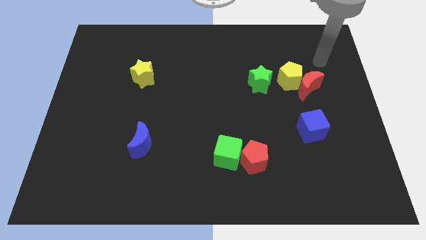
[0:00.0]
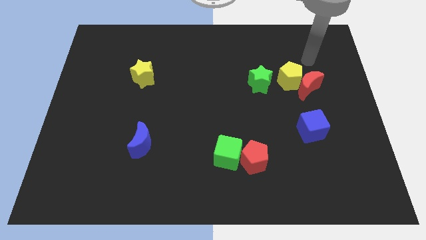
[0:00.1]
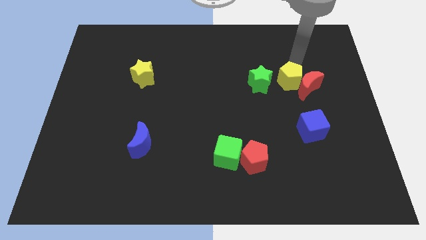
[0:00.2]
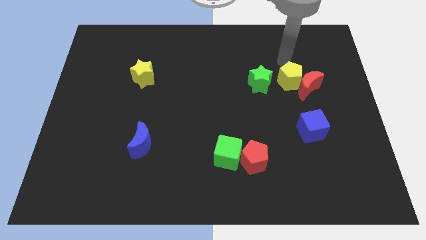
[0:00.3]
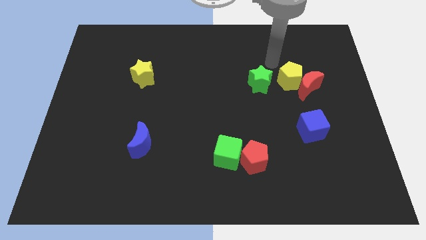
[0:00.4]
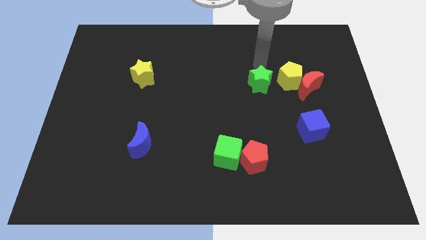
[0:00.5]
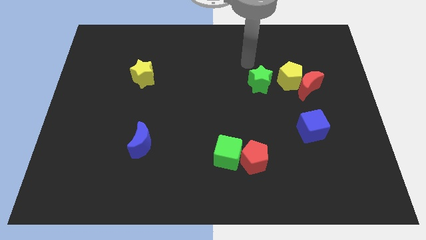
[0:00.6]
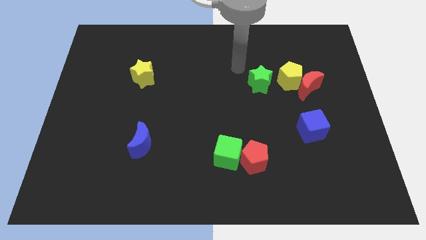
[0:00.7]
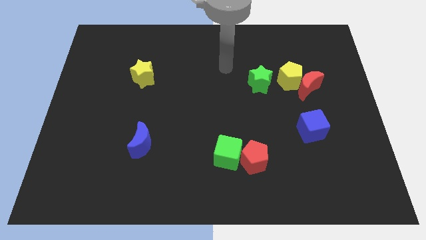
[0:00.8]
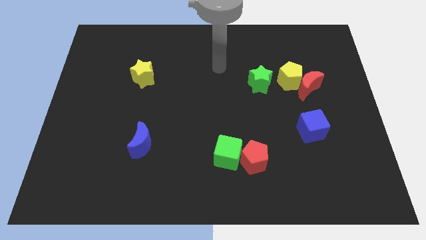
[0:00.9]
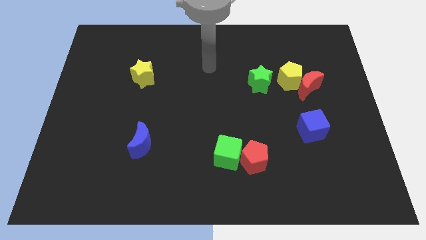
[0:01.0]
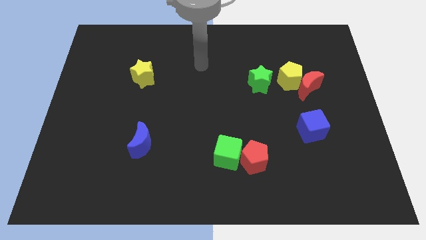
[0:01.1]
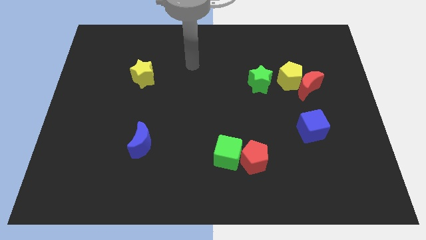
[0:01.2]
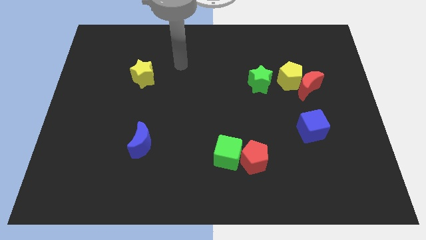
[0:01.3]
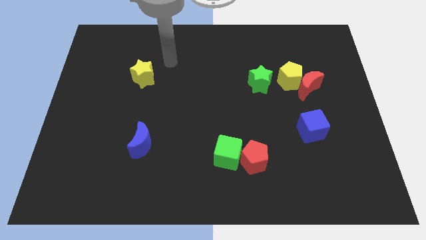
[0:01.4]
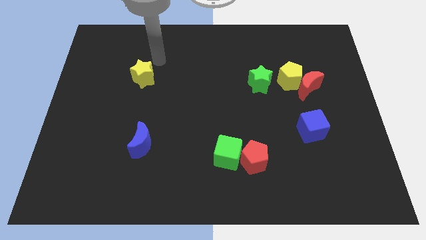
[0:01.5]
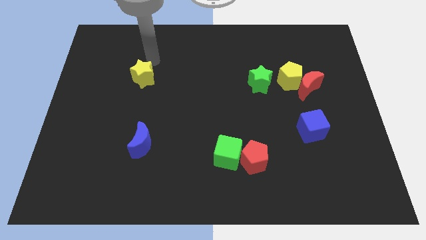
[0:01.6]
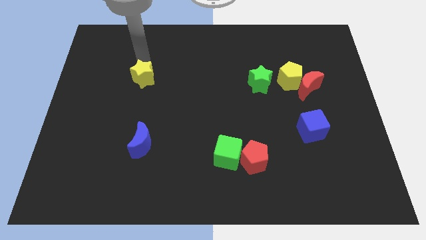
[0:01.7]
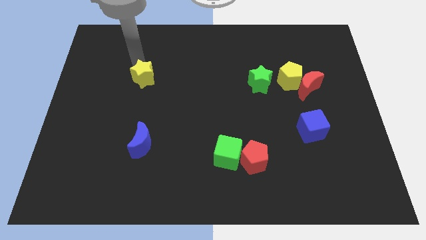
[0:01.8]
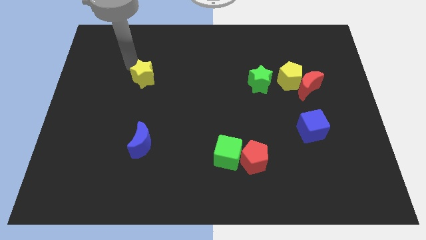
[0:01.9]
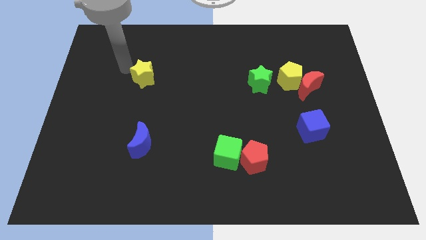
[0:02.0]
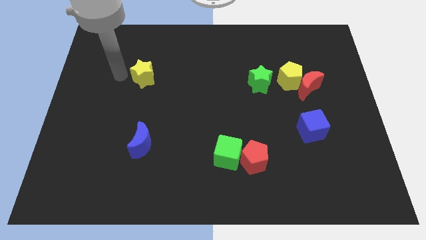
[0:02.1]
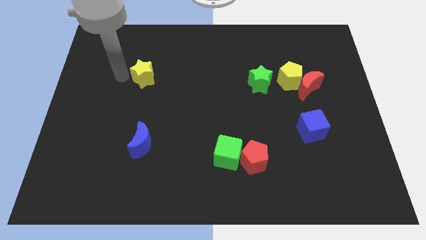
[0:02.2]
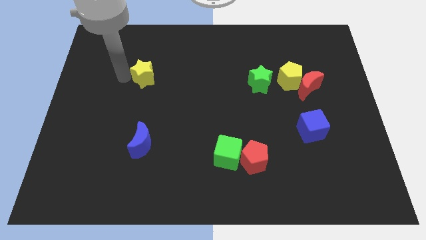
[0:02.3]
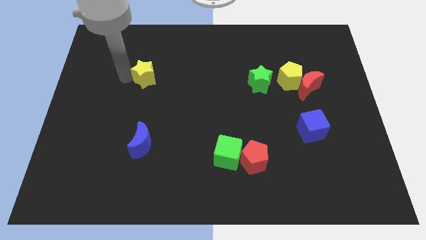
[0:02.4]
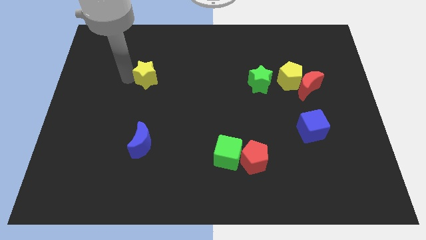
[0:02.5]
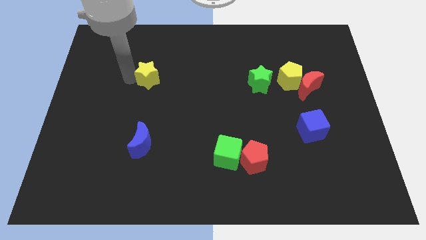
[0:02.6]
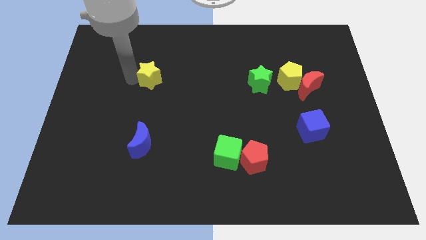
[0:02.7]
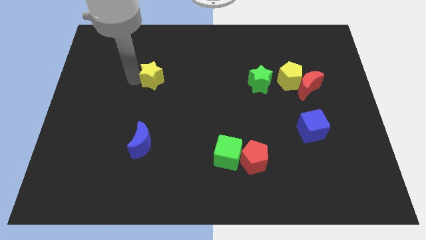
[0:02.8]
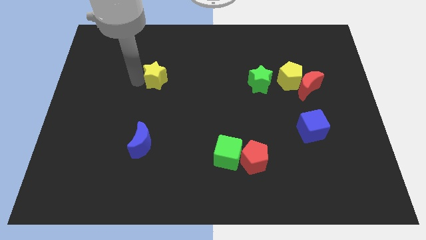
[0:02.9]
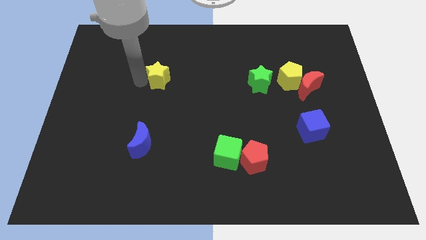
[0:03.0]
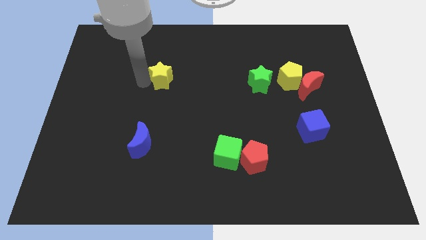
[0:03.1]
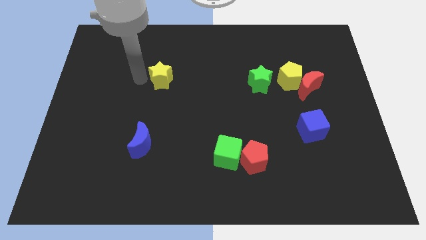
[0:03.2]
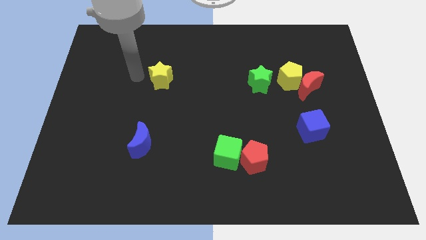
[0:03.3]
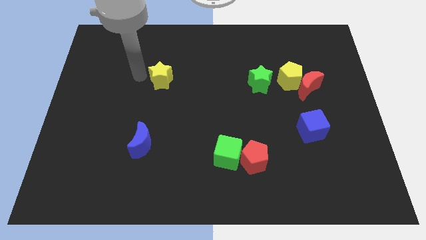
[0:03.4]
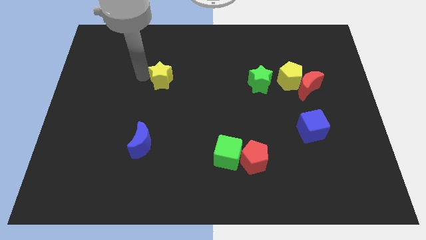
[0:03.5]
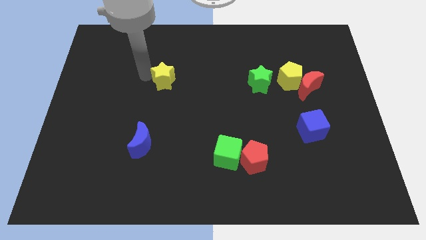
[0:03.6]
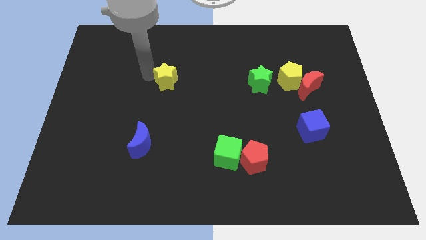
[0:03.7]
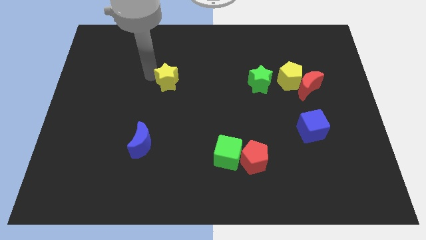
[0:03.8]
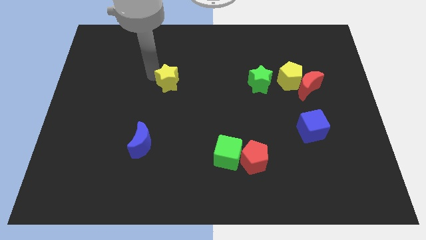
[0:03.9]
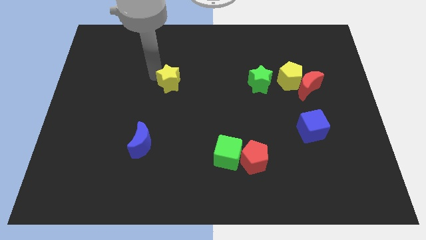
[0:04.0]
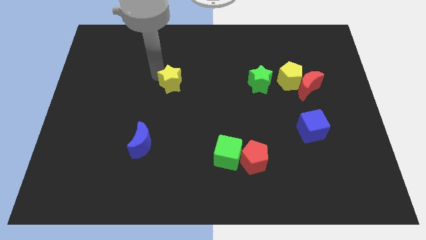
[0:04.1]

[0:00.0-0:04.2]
move the yellow star right somewhat

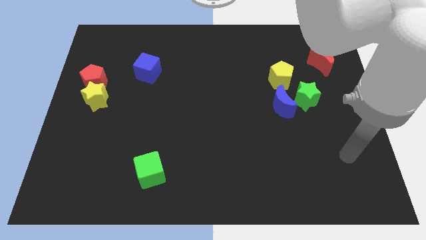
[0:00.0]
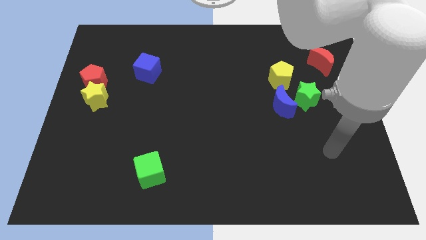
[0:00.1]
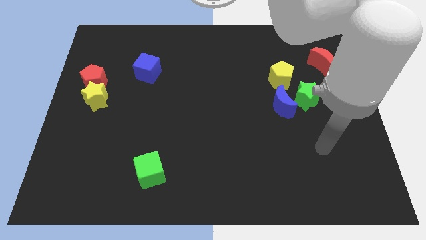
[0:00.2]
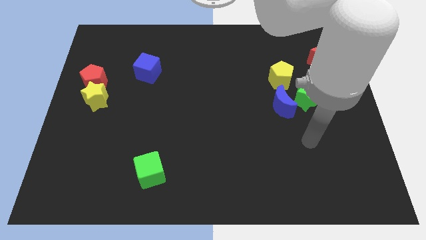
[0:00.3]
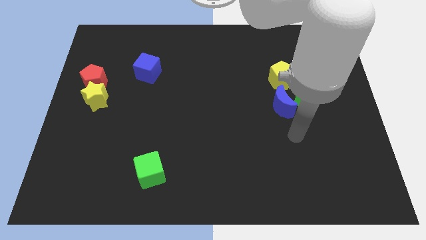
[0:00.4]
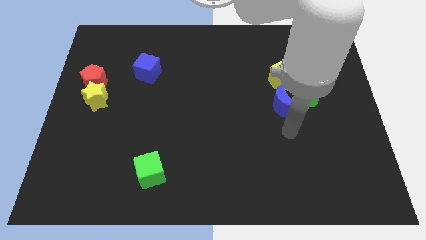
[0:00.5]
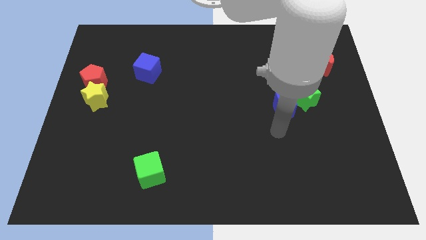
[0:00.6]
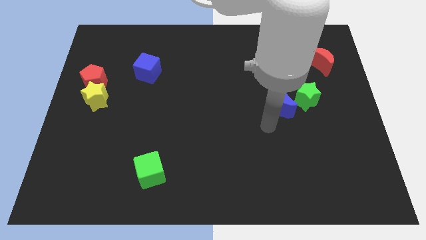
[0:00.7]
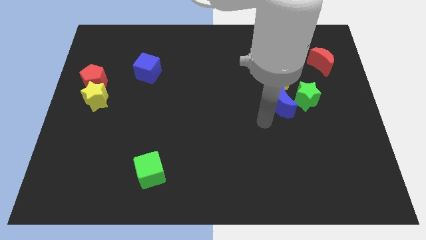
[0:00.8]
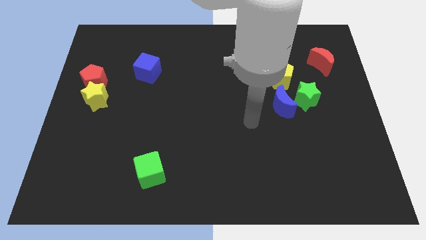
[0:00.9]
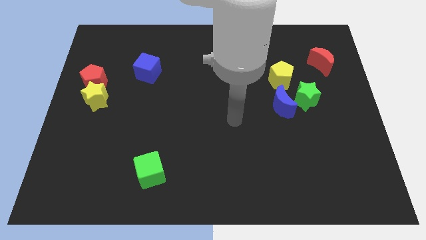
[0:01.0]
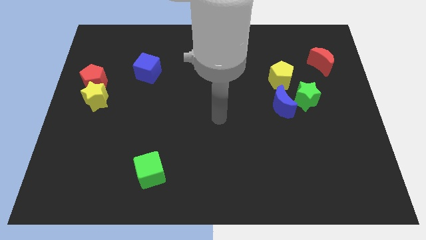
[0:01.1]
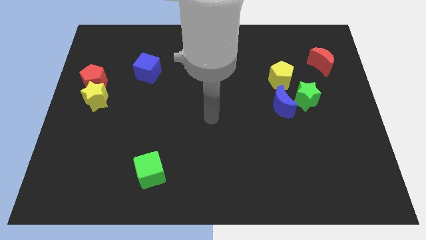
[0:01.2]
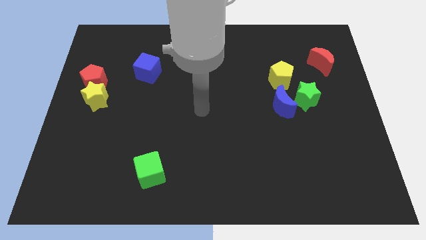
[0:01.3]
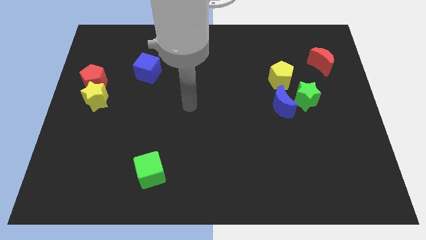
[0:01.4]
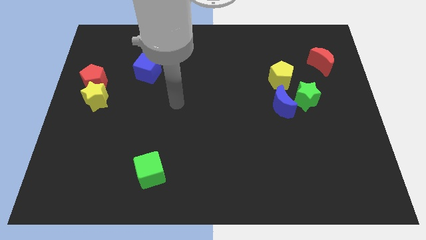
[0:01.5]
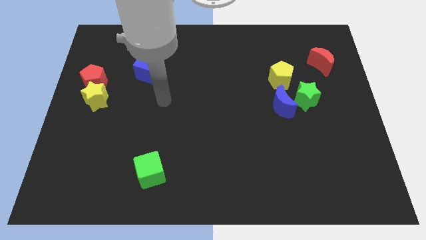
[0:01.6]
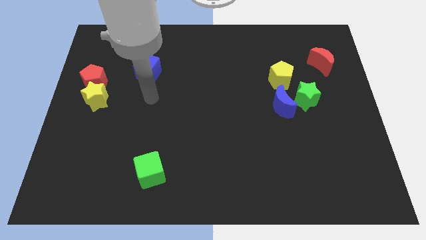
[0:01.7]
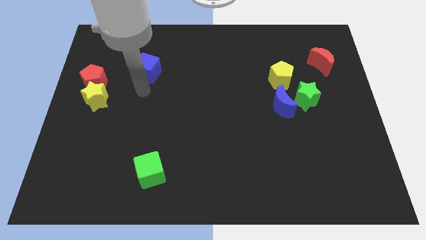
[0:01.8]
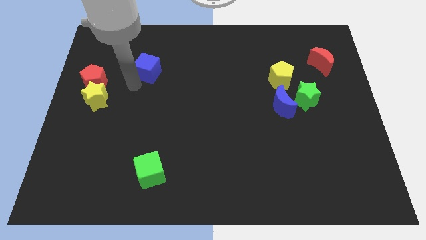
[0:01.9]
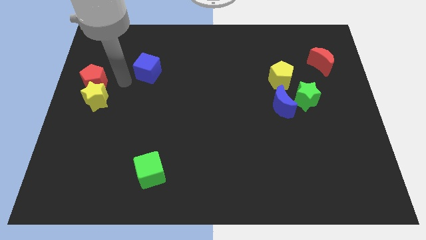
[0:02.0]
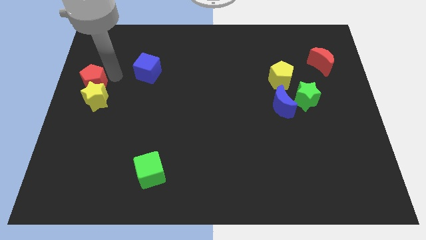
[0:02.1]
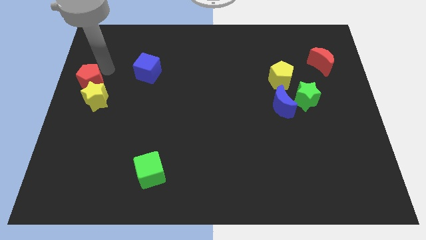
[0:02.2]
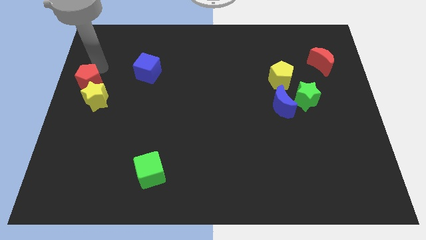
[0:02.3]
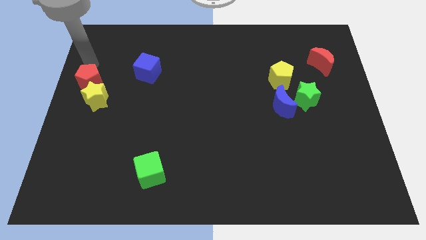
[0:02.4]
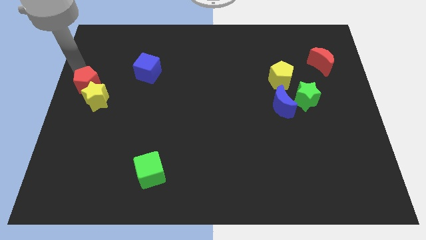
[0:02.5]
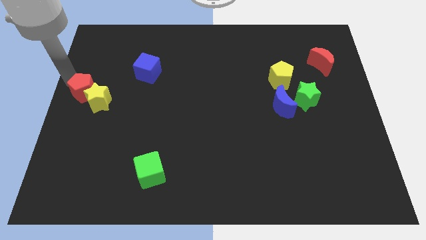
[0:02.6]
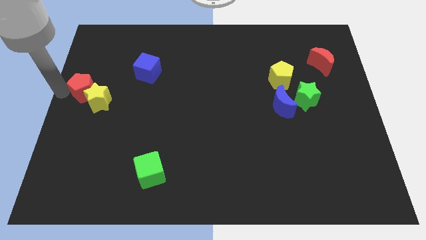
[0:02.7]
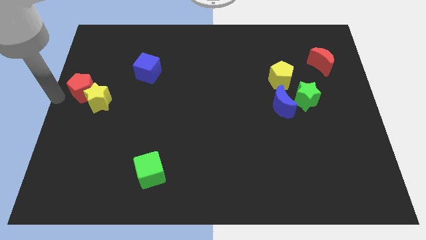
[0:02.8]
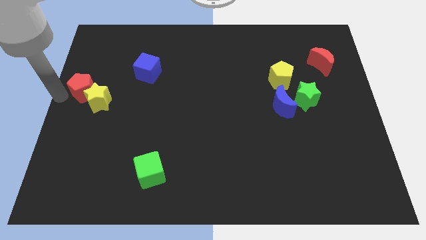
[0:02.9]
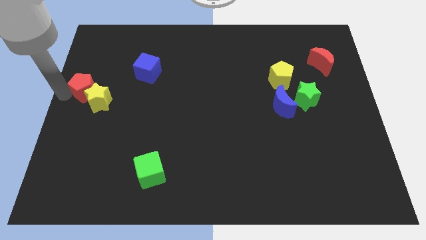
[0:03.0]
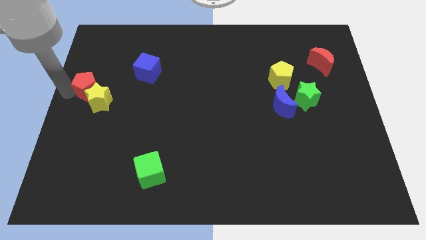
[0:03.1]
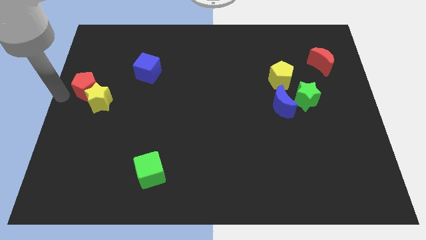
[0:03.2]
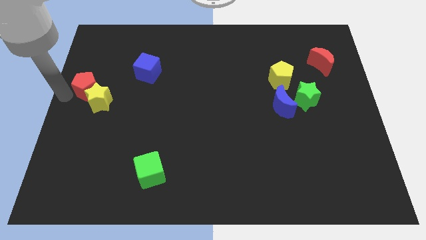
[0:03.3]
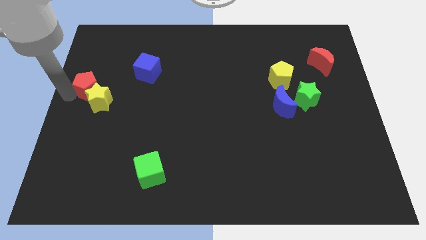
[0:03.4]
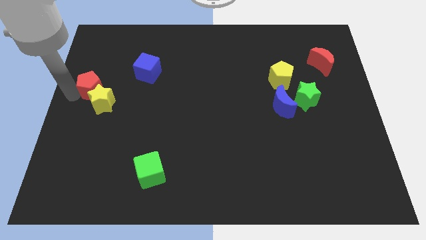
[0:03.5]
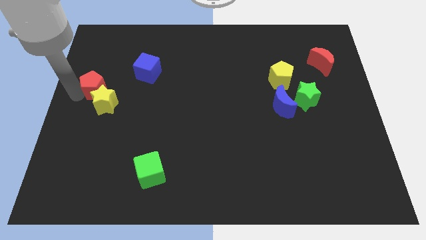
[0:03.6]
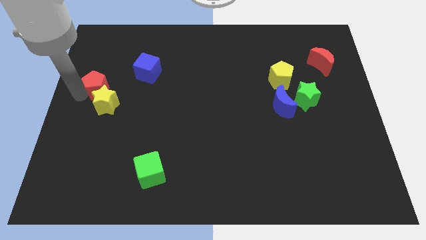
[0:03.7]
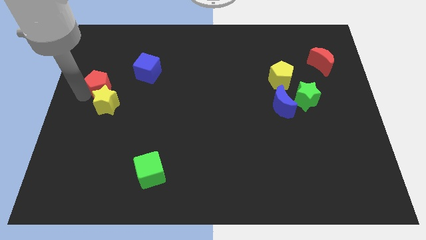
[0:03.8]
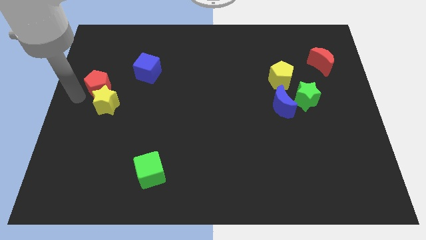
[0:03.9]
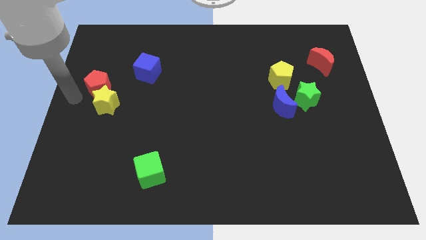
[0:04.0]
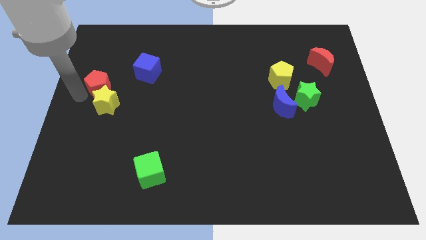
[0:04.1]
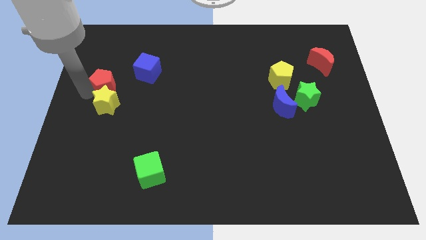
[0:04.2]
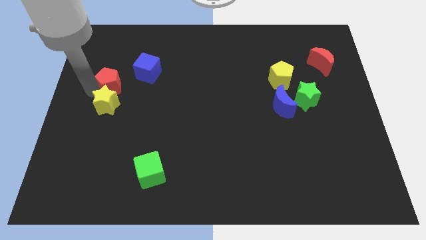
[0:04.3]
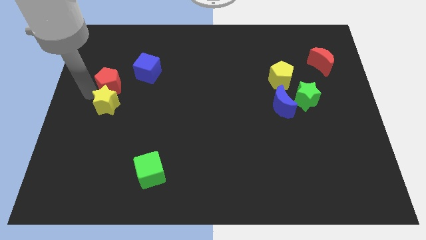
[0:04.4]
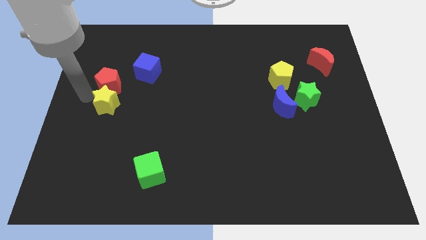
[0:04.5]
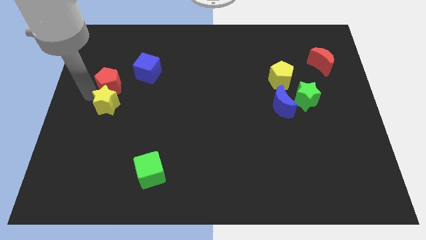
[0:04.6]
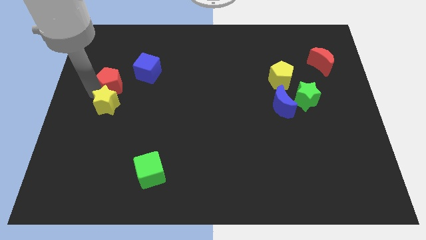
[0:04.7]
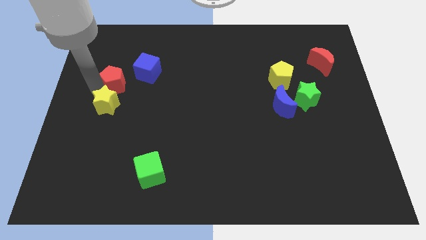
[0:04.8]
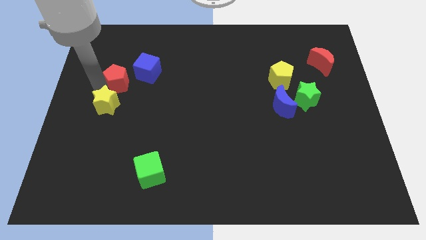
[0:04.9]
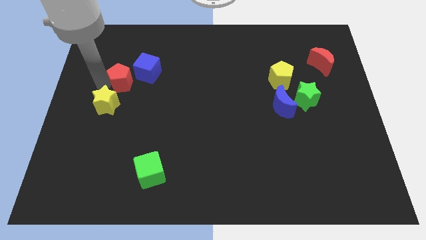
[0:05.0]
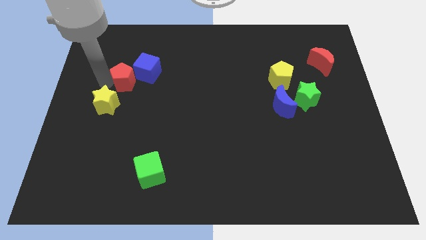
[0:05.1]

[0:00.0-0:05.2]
slightly move the red pentagon right
